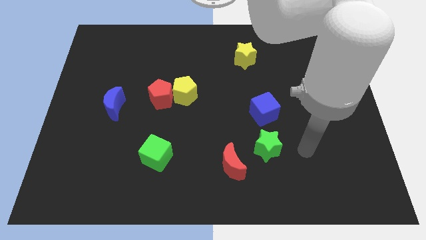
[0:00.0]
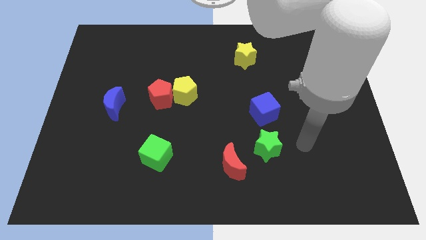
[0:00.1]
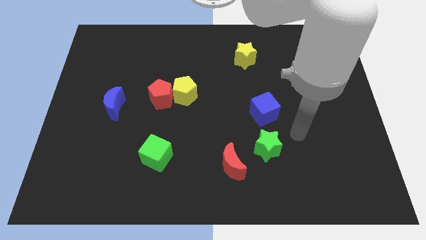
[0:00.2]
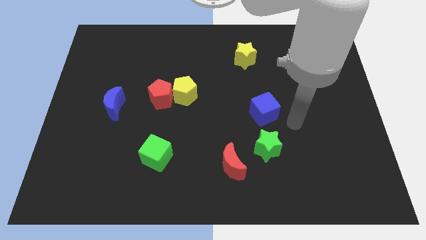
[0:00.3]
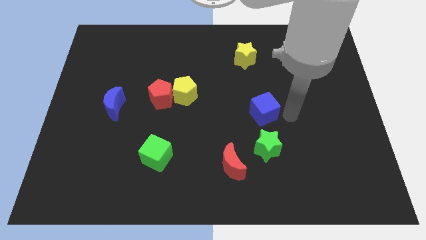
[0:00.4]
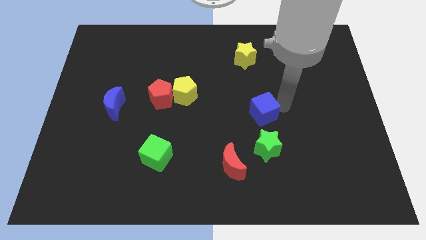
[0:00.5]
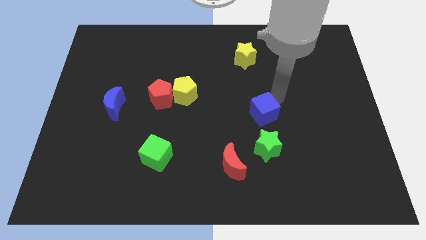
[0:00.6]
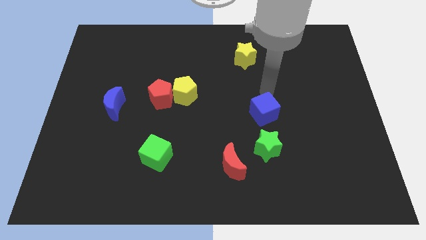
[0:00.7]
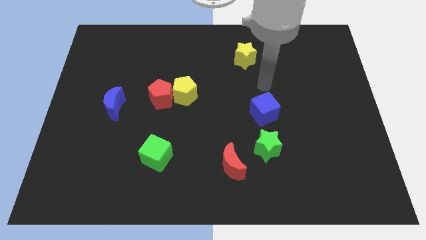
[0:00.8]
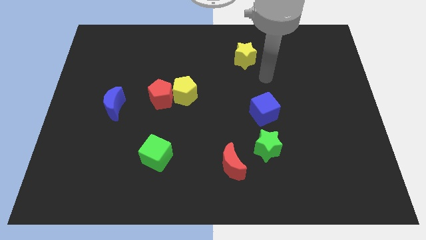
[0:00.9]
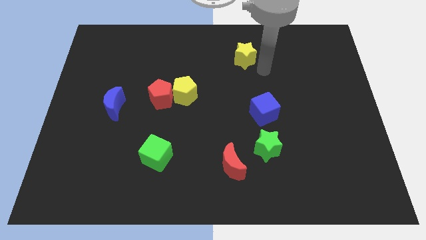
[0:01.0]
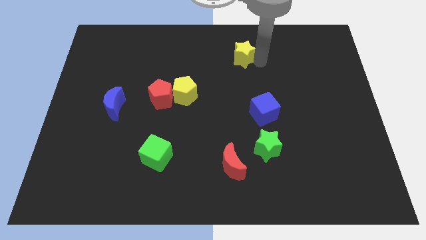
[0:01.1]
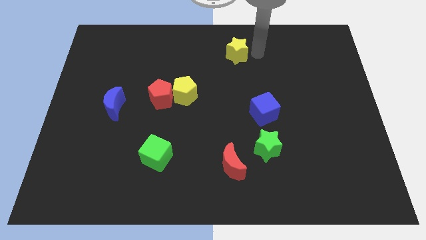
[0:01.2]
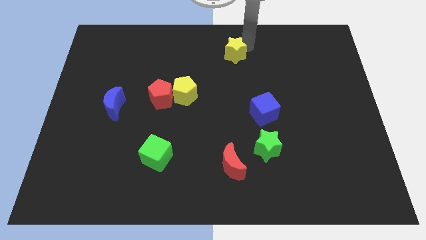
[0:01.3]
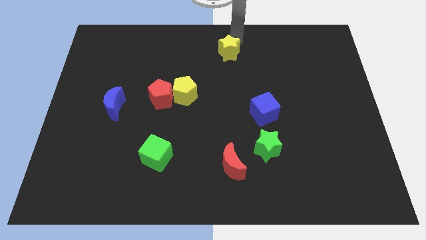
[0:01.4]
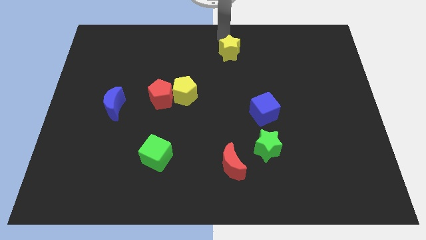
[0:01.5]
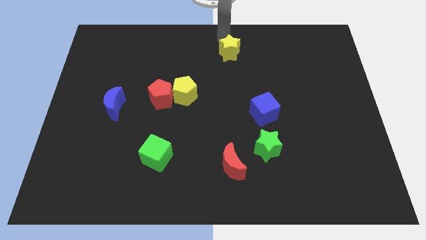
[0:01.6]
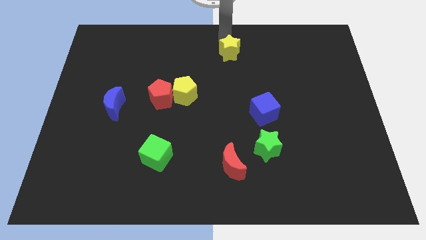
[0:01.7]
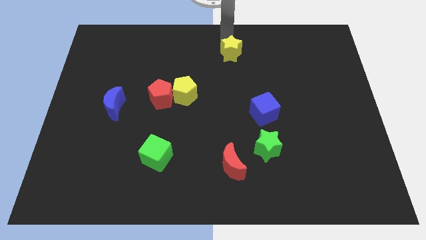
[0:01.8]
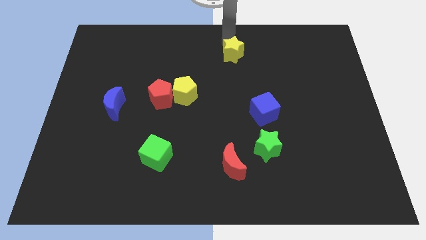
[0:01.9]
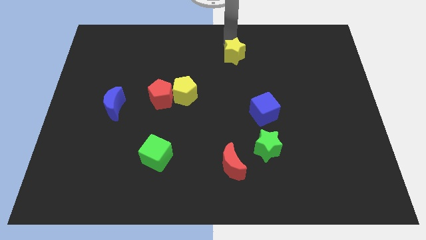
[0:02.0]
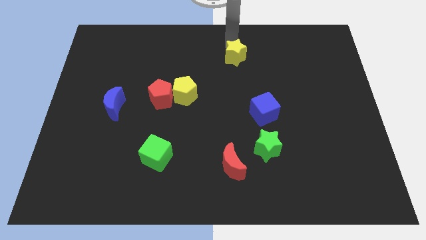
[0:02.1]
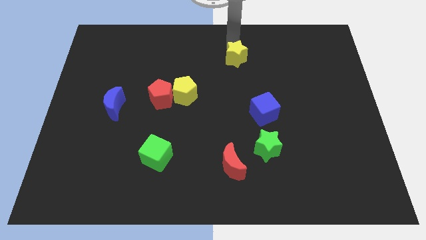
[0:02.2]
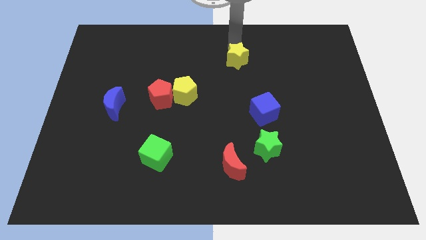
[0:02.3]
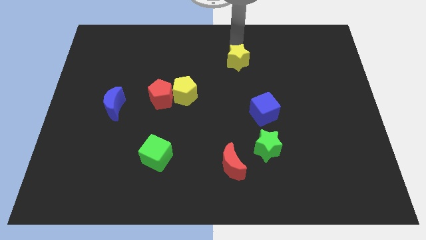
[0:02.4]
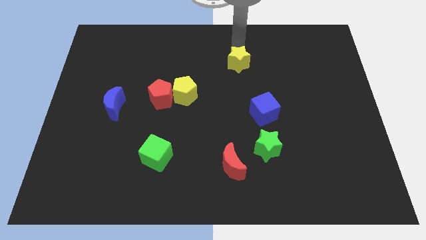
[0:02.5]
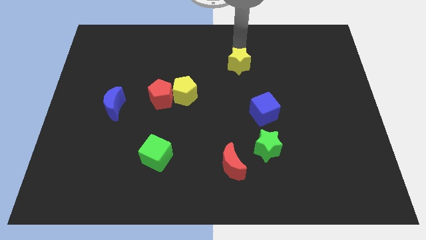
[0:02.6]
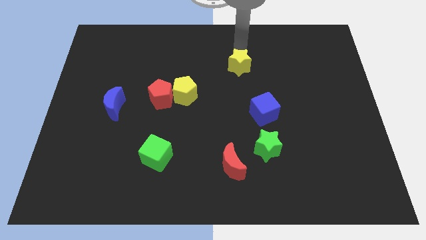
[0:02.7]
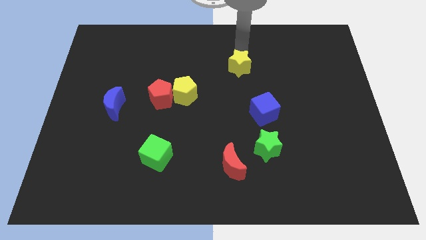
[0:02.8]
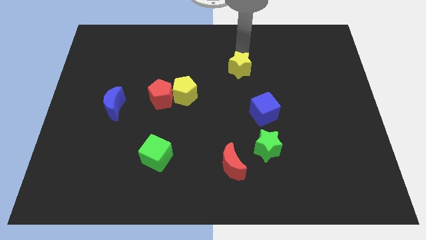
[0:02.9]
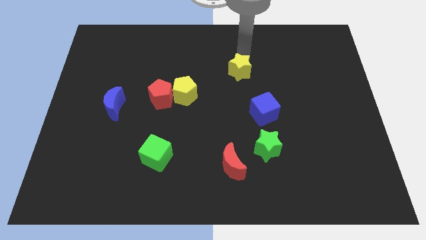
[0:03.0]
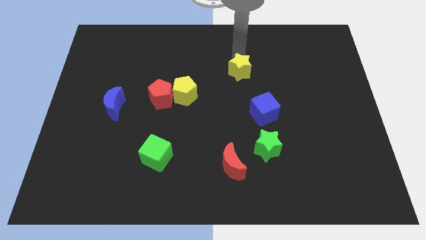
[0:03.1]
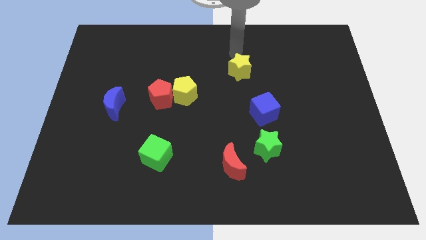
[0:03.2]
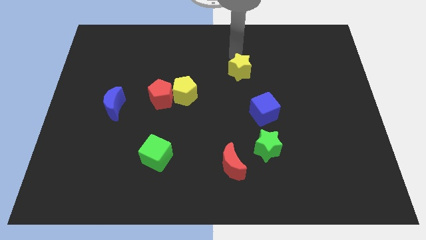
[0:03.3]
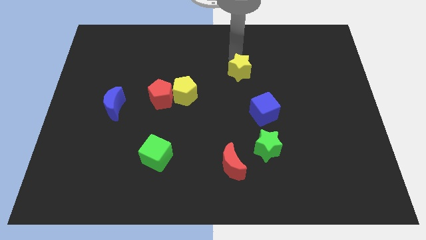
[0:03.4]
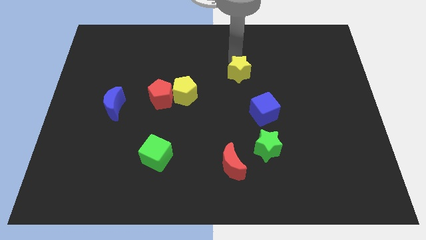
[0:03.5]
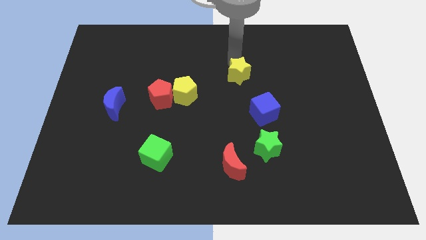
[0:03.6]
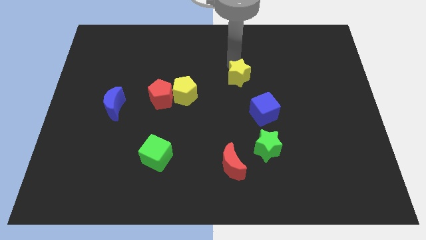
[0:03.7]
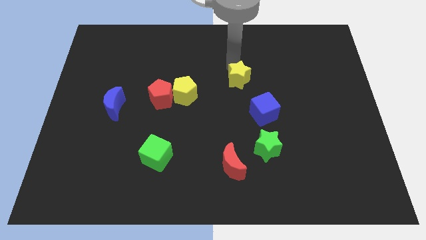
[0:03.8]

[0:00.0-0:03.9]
slightly push the yellow star down

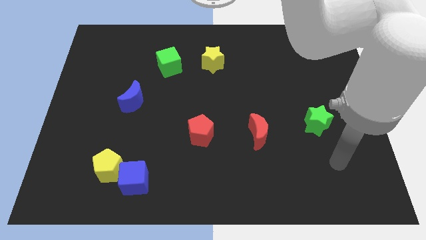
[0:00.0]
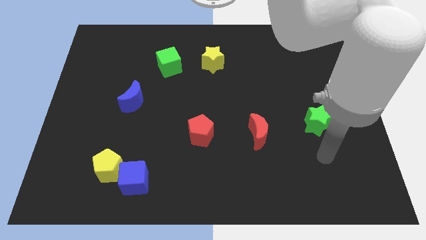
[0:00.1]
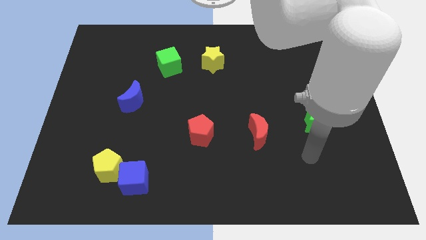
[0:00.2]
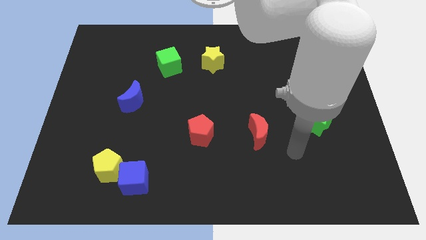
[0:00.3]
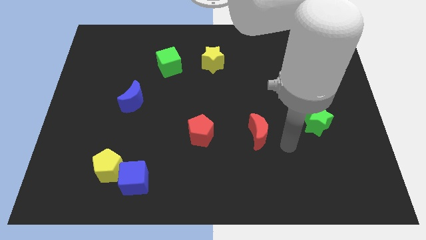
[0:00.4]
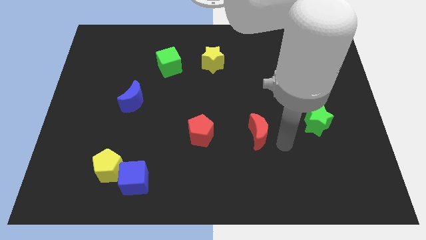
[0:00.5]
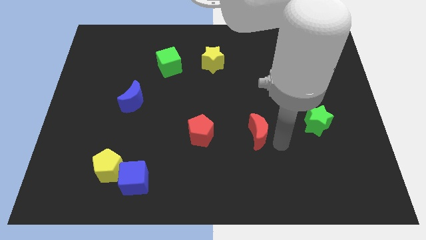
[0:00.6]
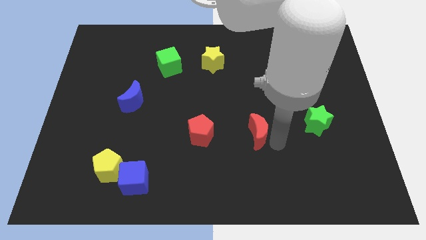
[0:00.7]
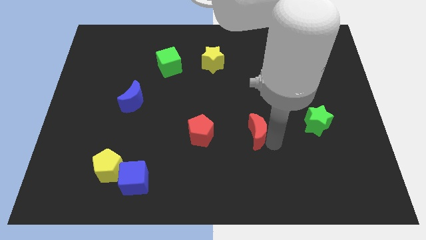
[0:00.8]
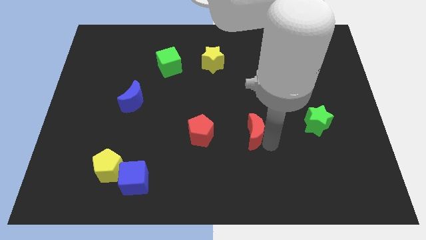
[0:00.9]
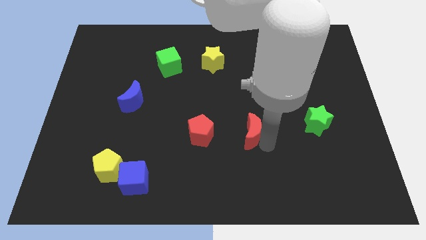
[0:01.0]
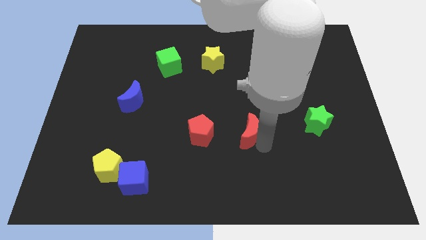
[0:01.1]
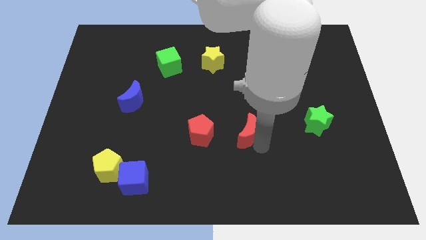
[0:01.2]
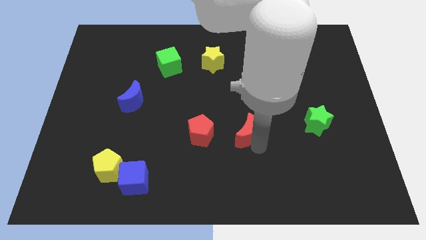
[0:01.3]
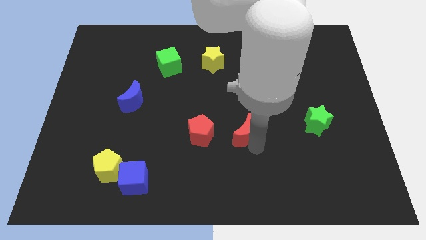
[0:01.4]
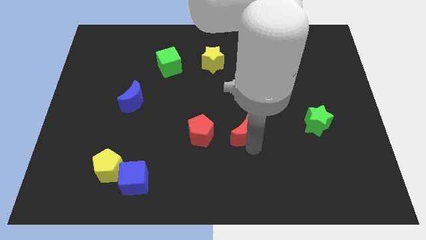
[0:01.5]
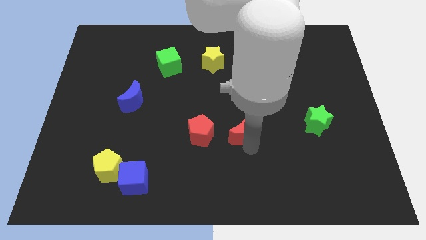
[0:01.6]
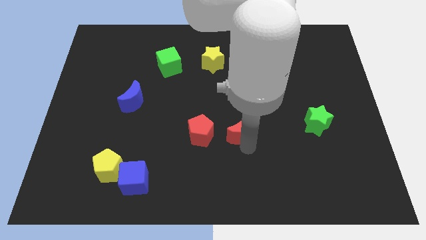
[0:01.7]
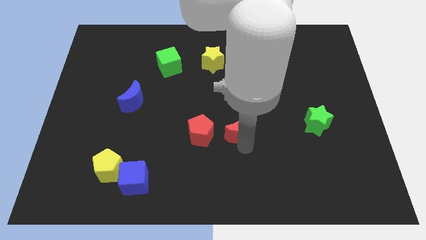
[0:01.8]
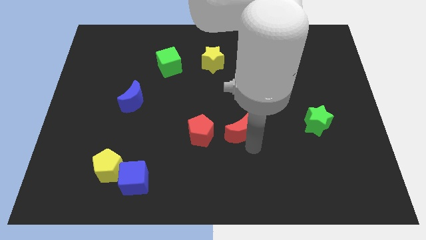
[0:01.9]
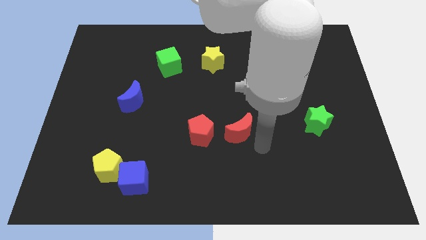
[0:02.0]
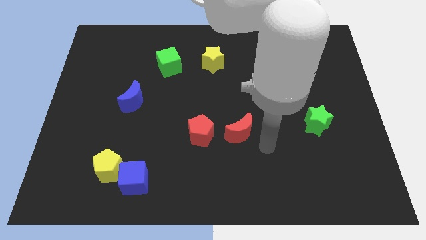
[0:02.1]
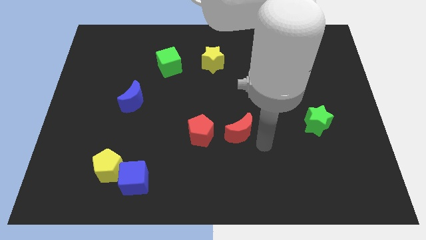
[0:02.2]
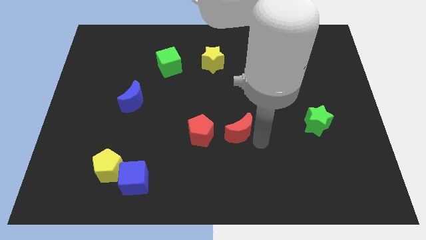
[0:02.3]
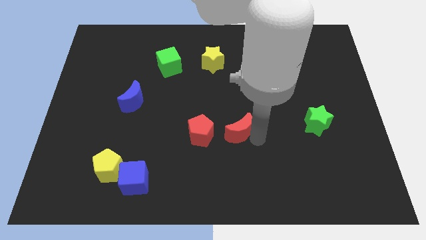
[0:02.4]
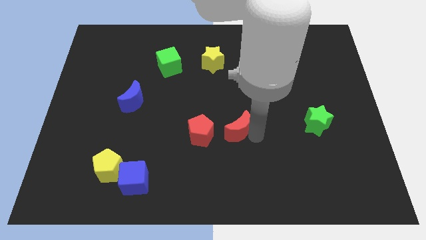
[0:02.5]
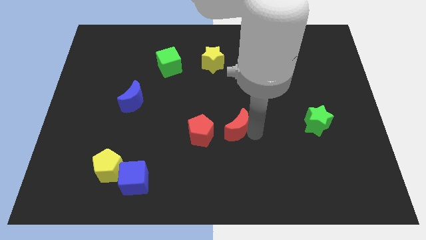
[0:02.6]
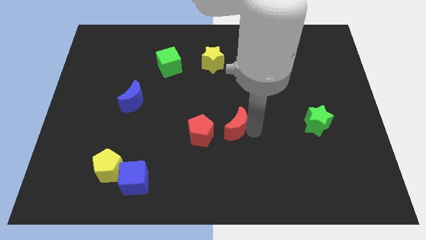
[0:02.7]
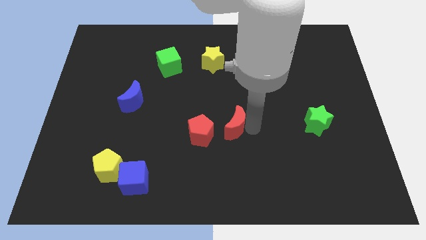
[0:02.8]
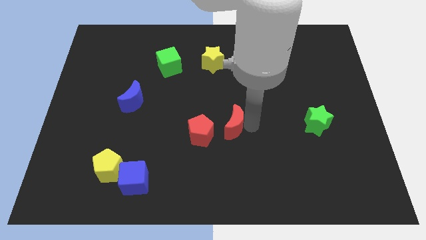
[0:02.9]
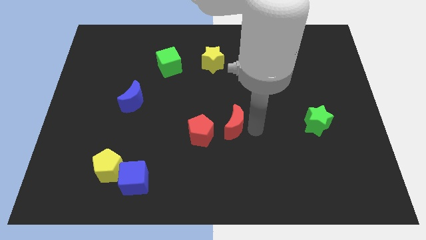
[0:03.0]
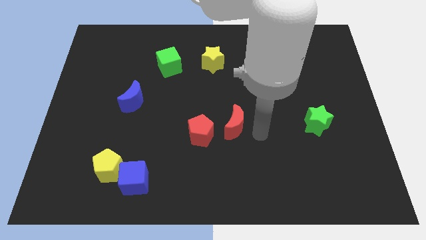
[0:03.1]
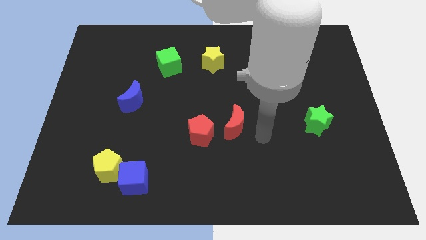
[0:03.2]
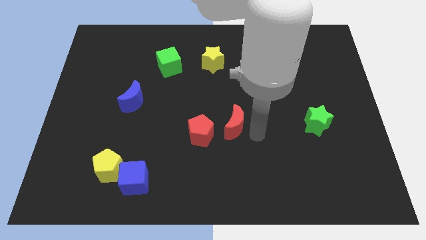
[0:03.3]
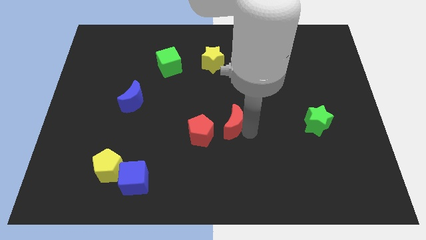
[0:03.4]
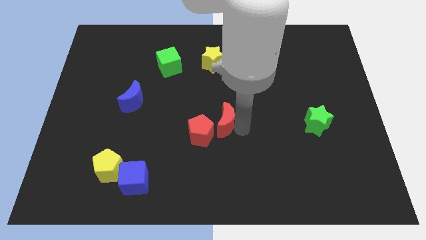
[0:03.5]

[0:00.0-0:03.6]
slightly move the red moon to the left
